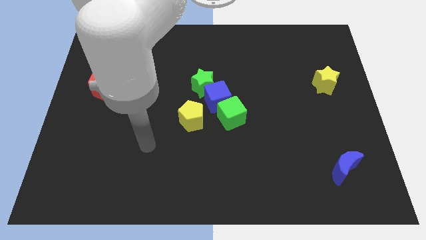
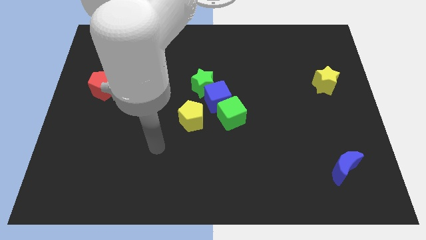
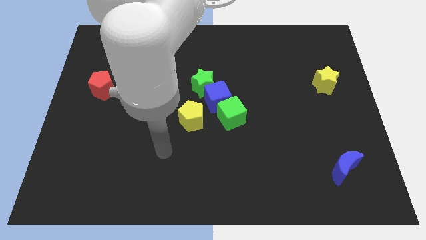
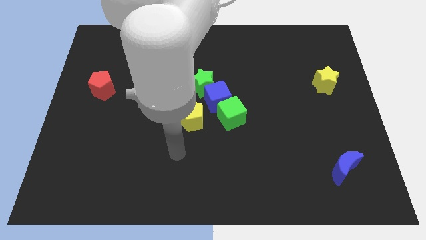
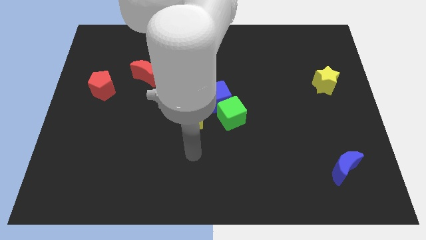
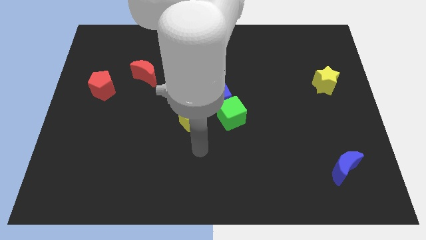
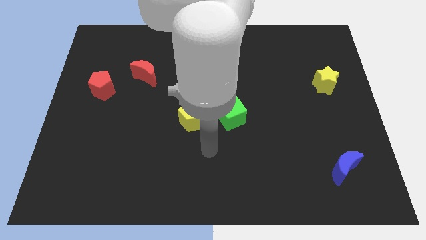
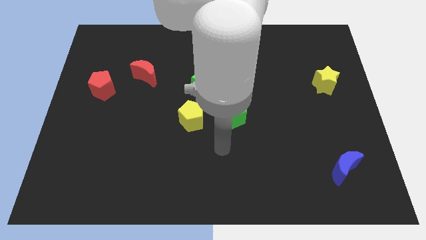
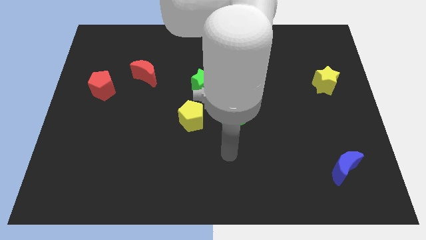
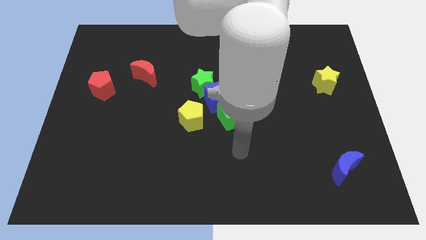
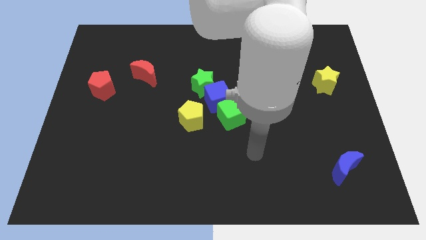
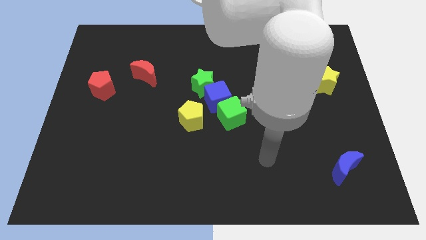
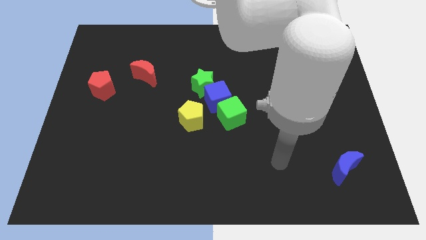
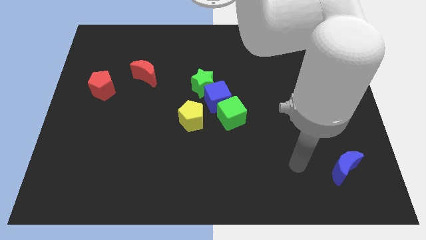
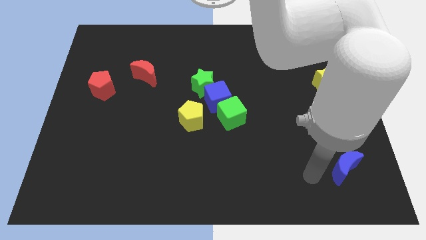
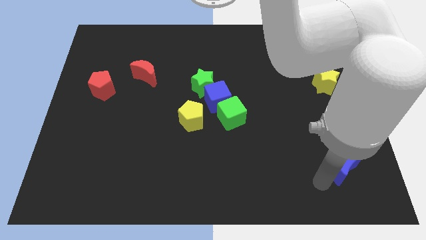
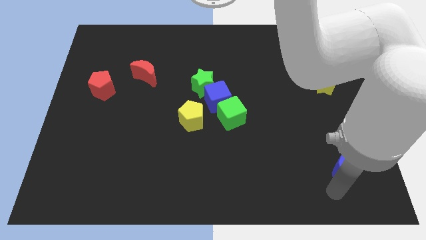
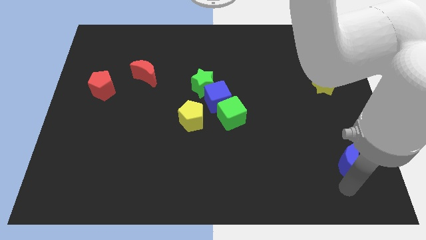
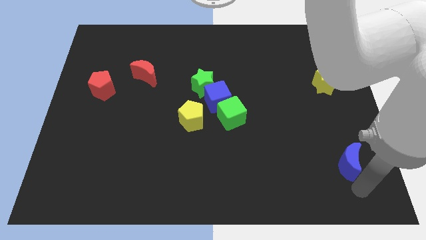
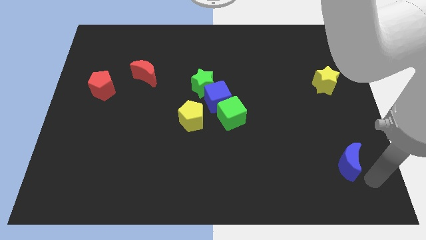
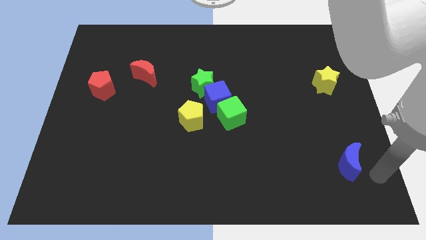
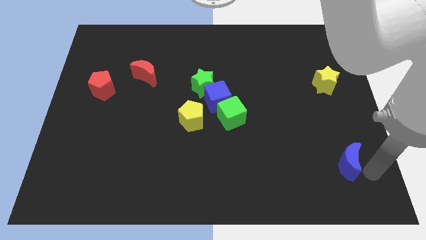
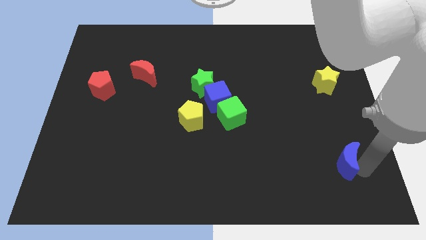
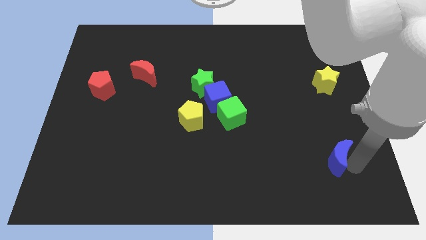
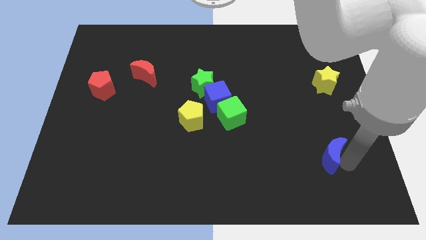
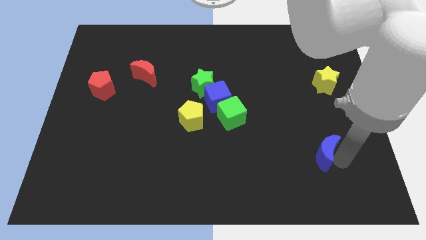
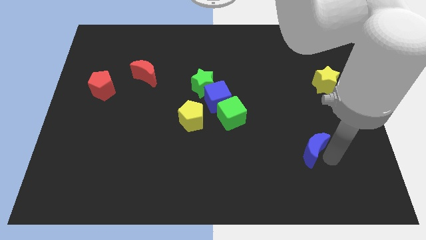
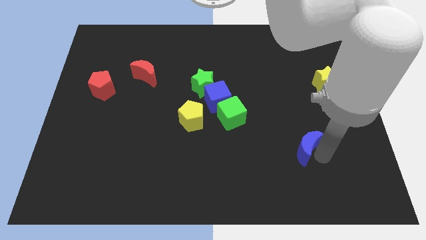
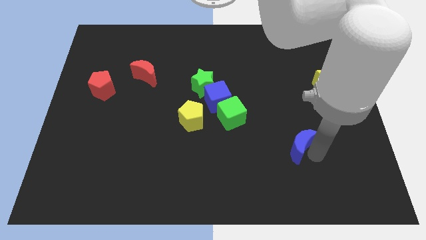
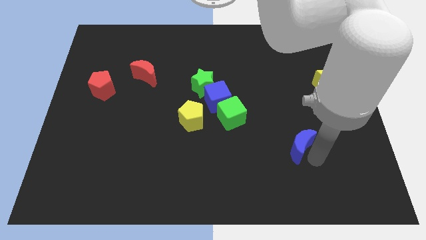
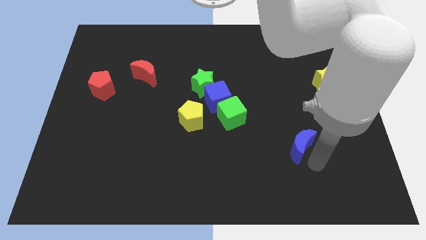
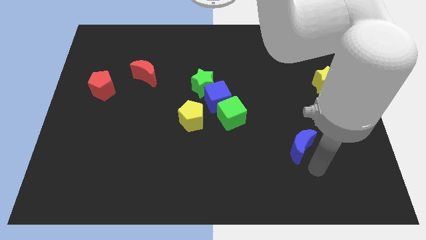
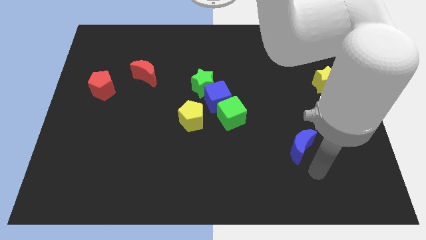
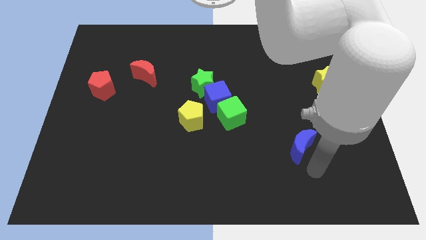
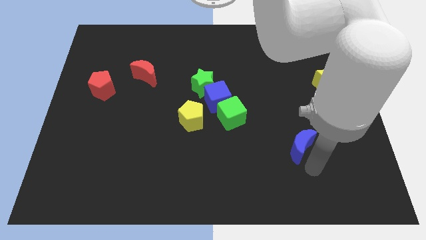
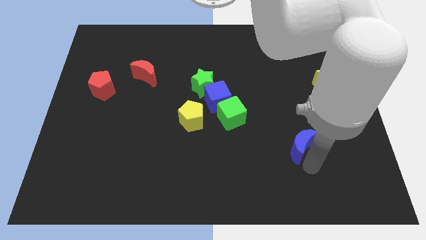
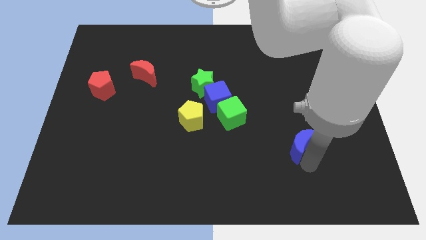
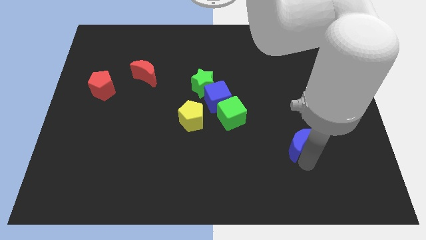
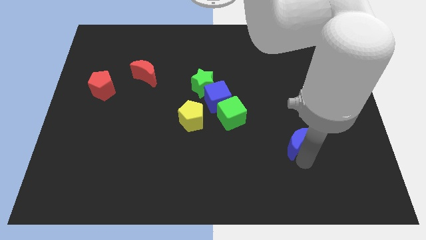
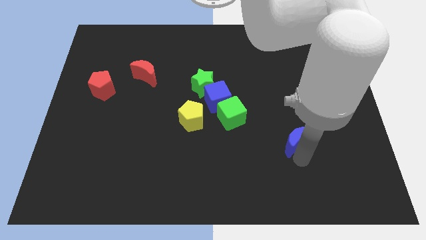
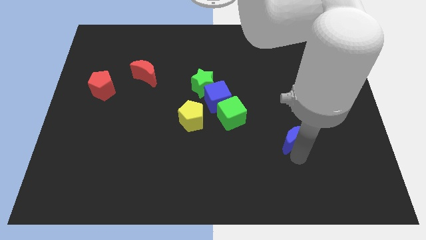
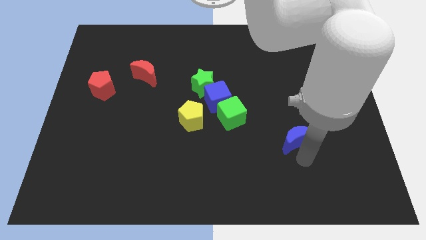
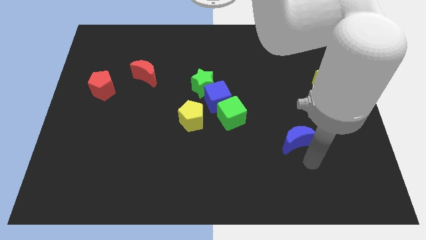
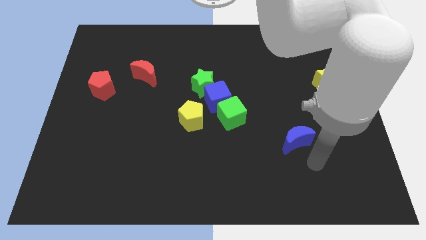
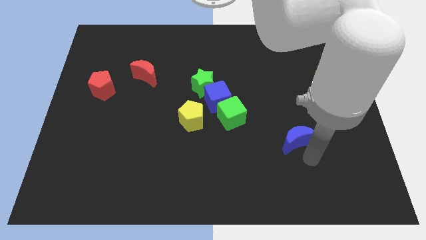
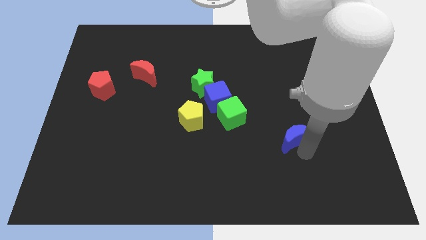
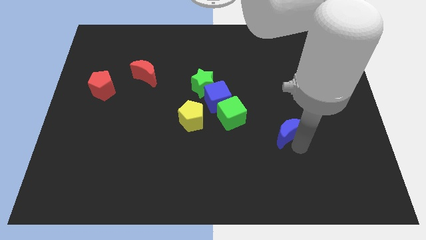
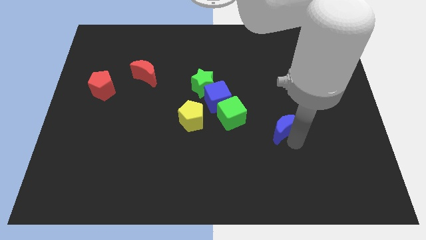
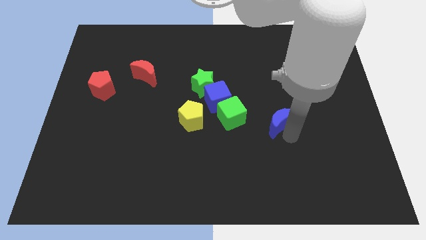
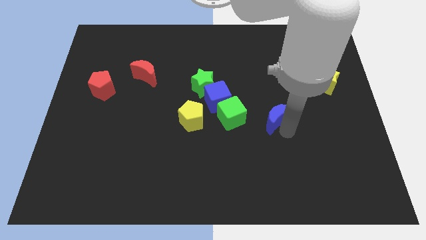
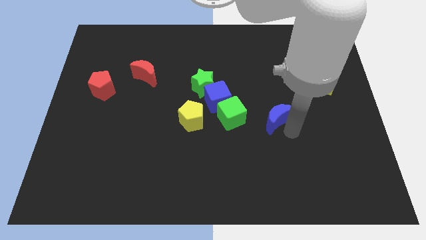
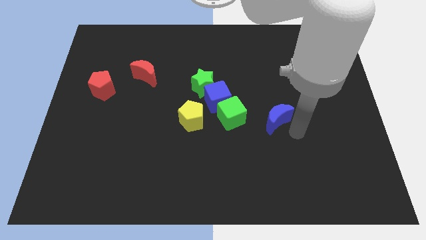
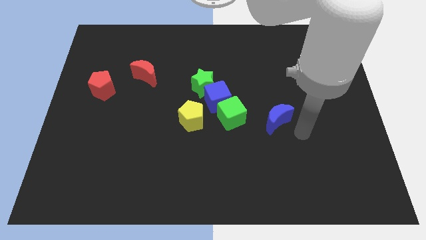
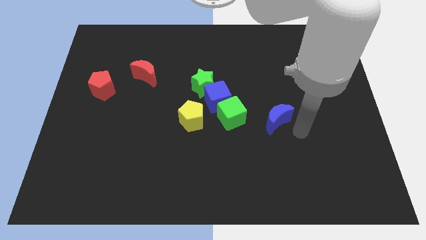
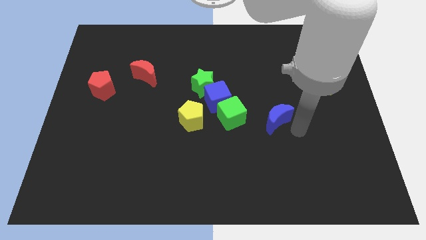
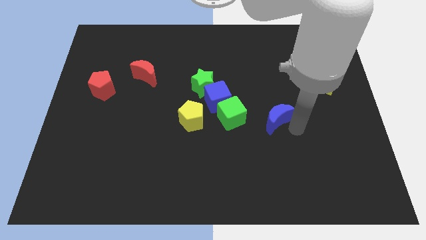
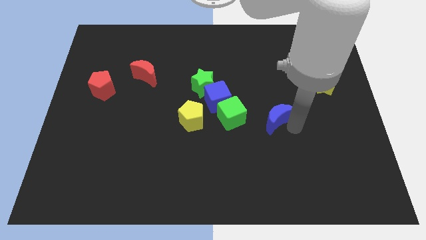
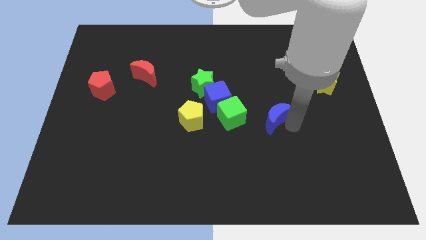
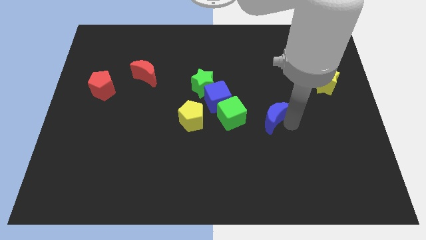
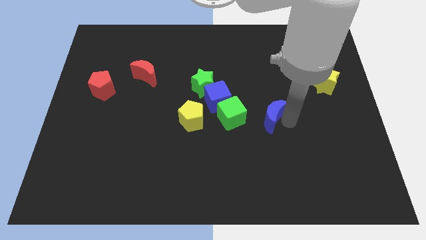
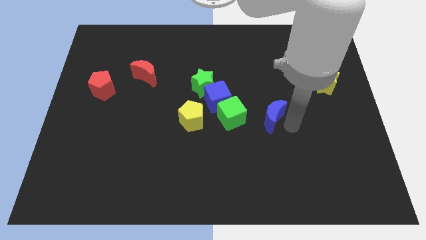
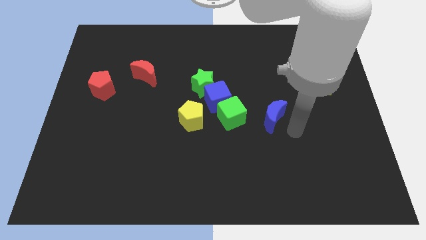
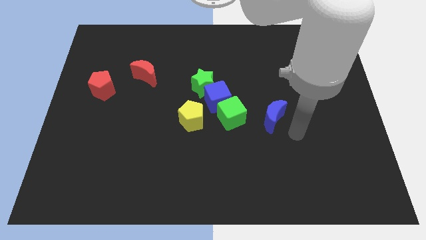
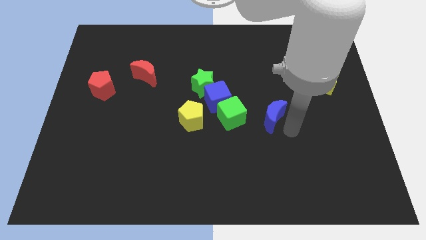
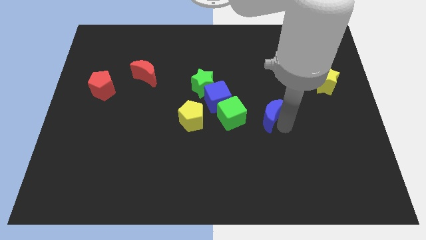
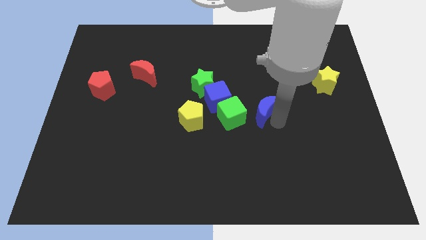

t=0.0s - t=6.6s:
push the blue moon upwards and left

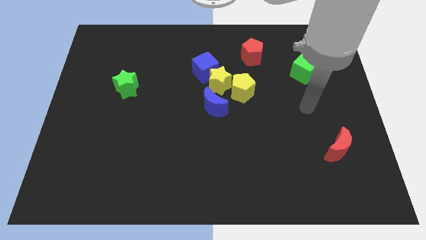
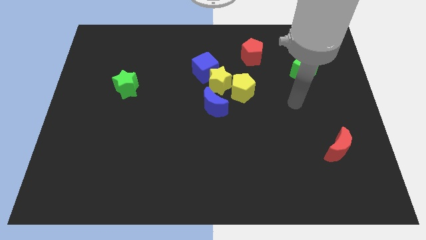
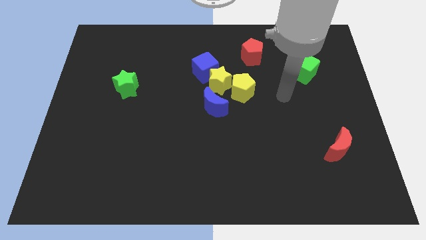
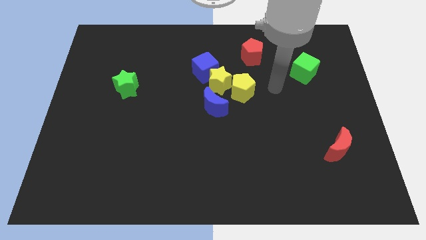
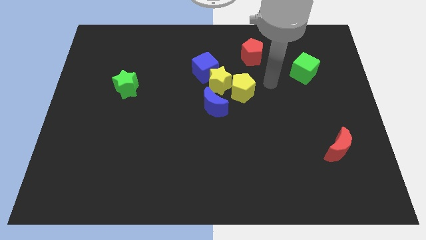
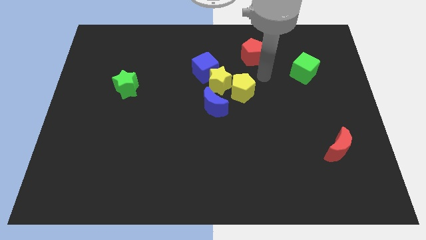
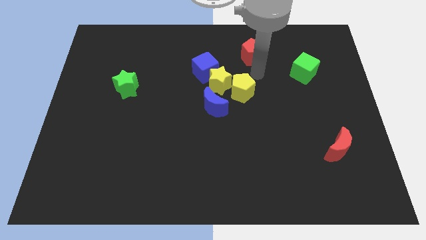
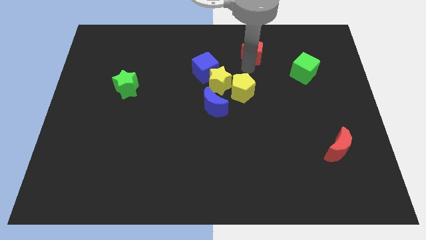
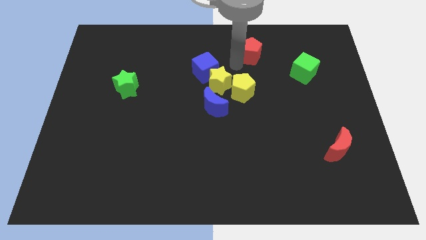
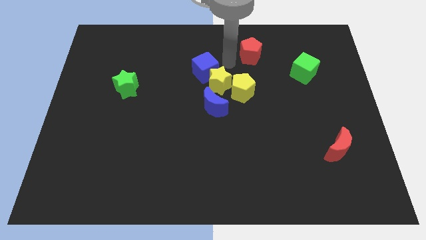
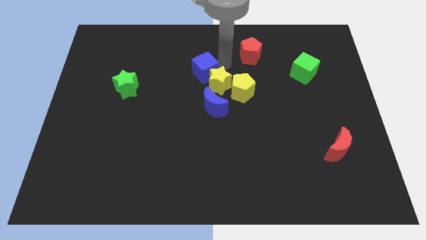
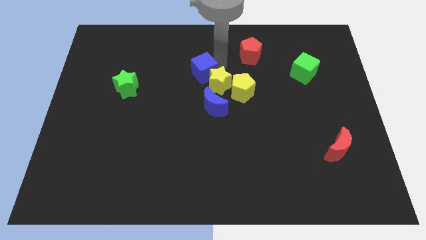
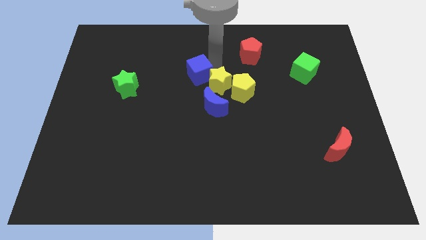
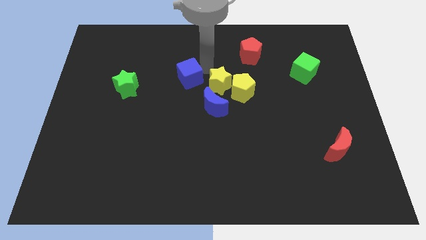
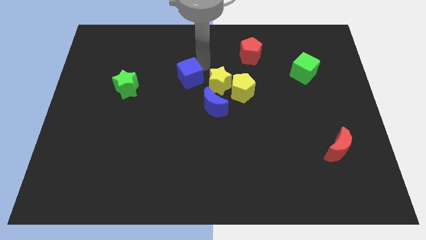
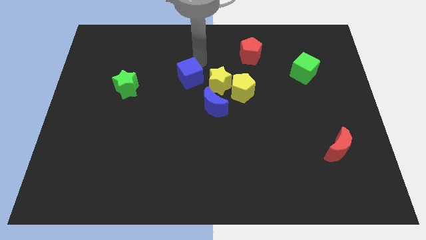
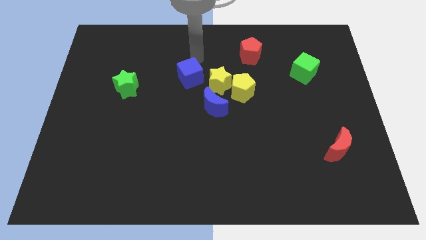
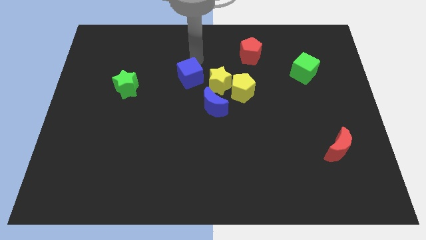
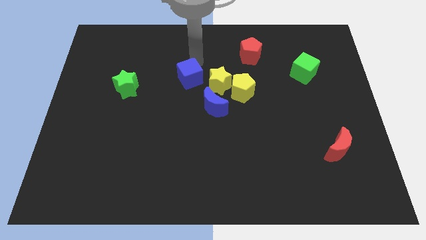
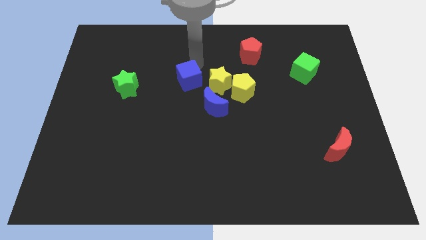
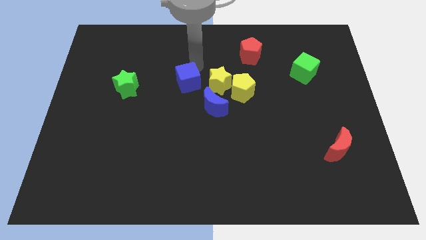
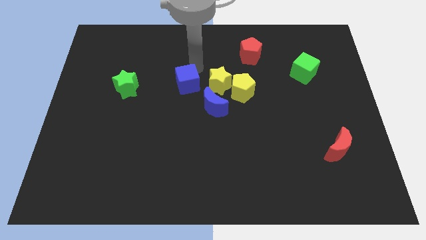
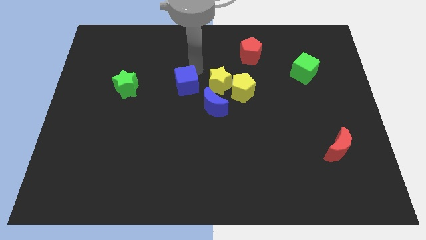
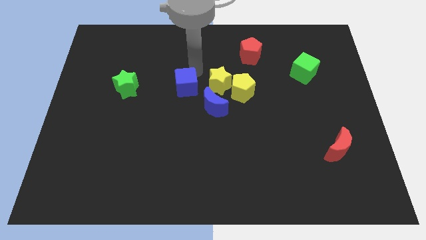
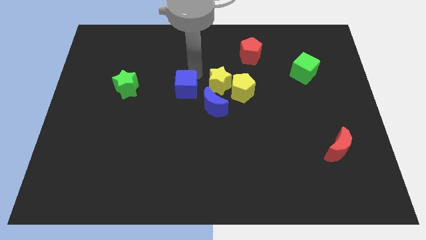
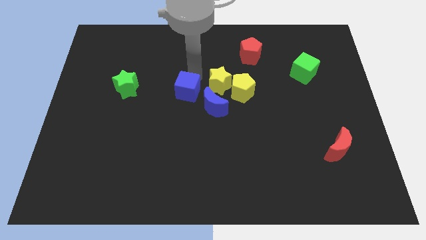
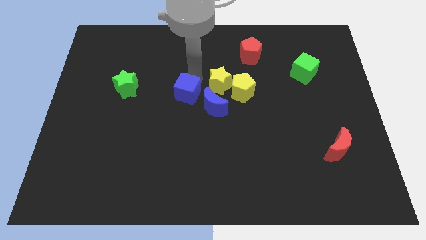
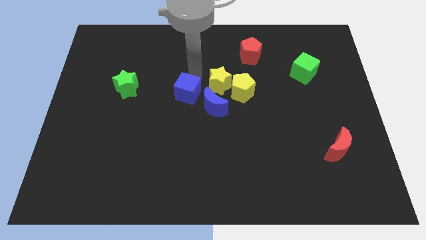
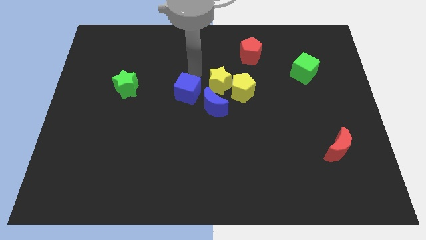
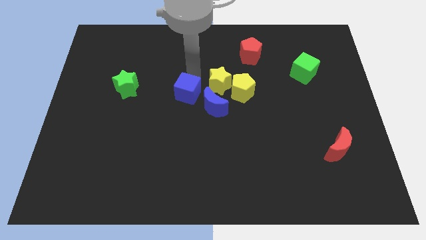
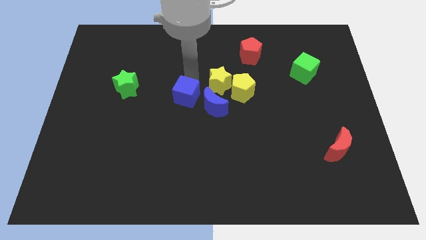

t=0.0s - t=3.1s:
slightly push the blue cube down
